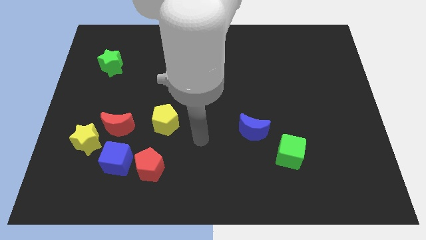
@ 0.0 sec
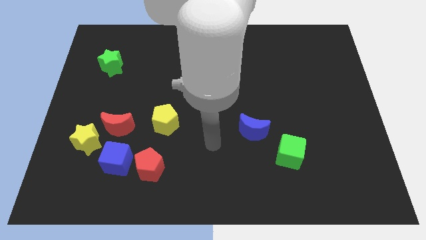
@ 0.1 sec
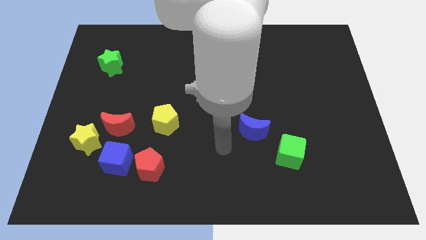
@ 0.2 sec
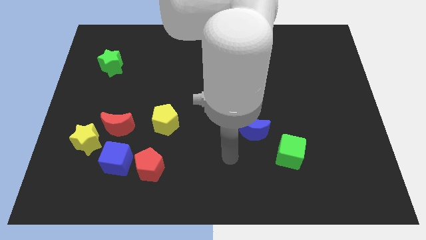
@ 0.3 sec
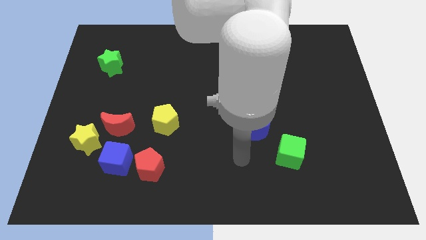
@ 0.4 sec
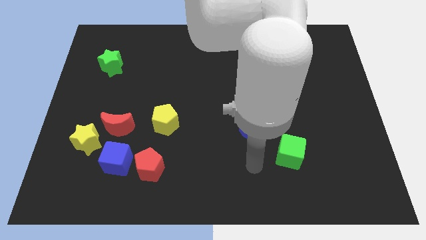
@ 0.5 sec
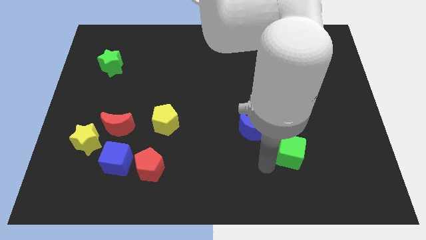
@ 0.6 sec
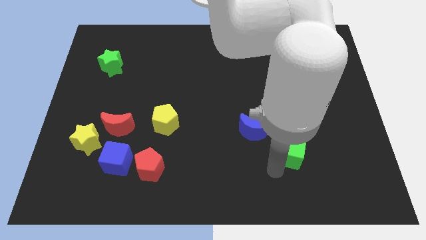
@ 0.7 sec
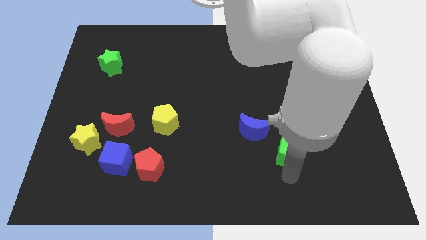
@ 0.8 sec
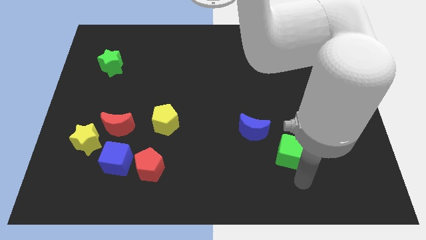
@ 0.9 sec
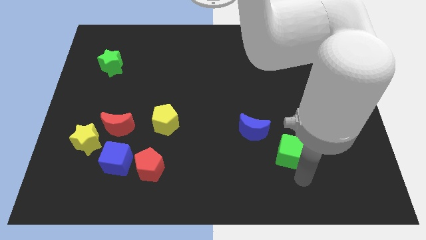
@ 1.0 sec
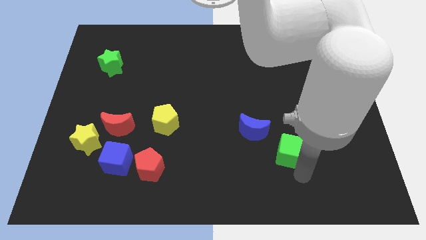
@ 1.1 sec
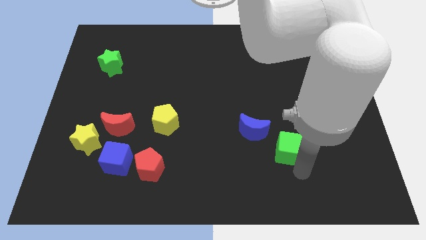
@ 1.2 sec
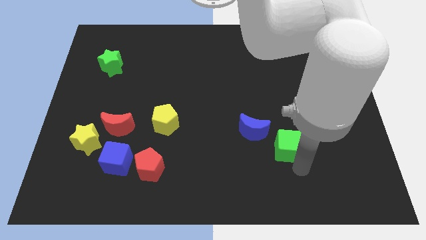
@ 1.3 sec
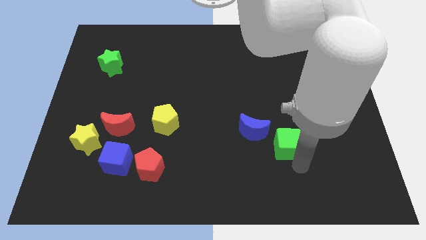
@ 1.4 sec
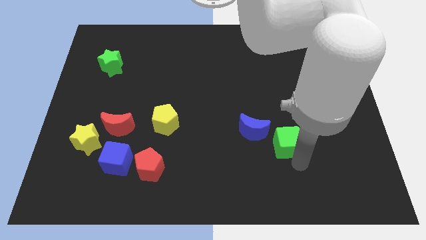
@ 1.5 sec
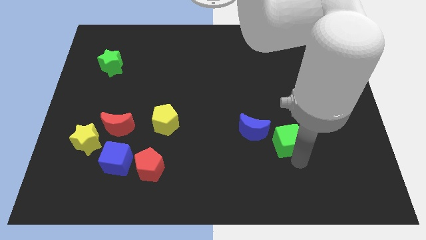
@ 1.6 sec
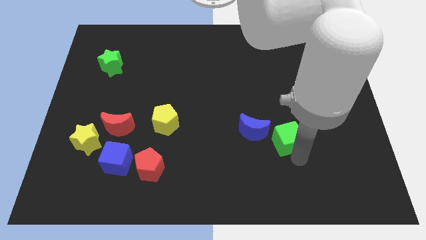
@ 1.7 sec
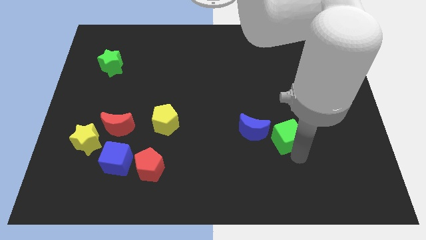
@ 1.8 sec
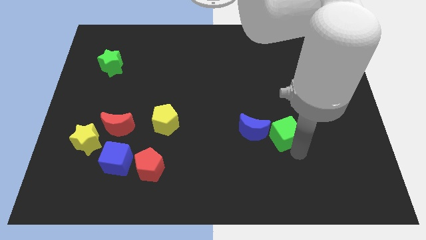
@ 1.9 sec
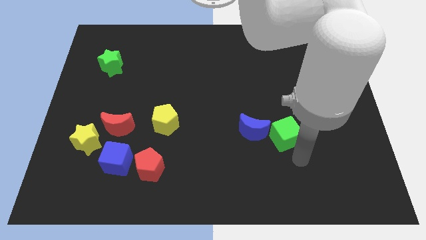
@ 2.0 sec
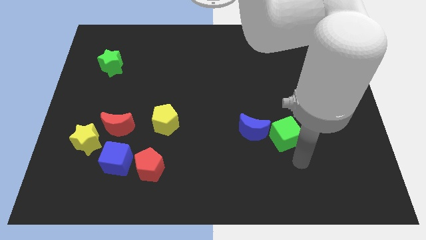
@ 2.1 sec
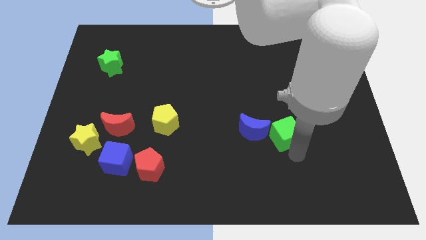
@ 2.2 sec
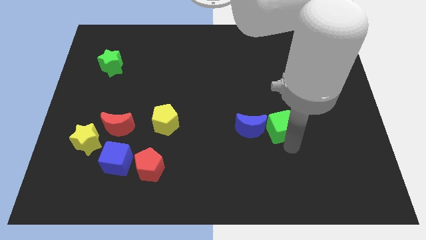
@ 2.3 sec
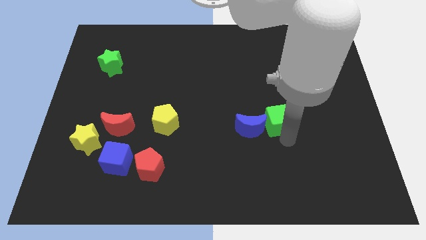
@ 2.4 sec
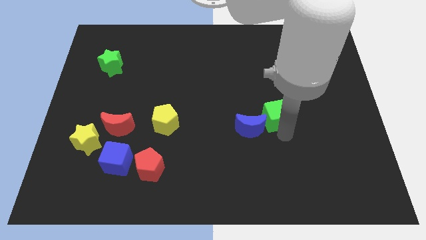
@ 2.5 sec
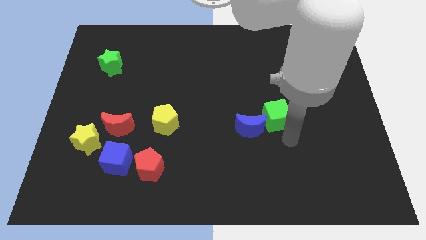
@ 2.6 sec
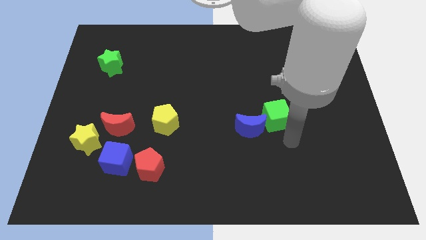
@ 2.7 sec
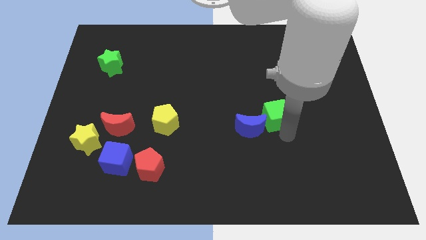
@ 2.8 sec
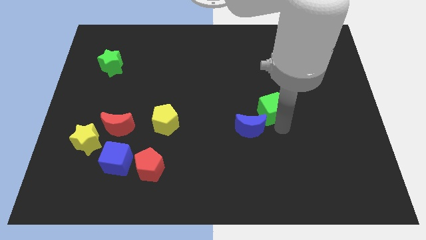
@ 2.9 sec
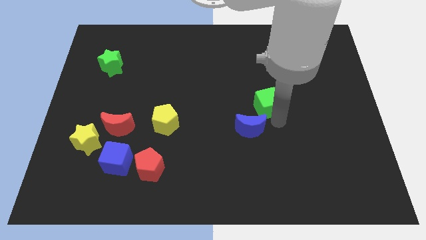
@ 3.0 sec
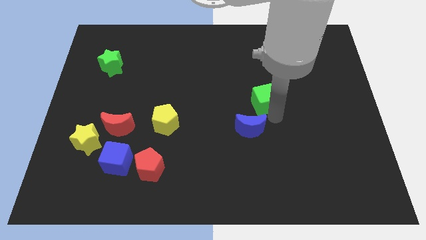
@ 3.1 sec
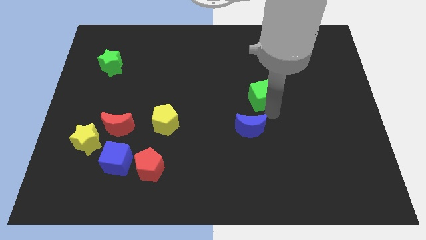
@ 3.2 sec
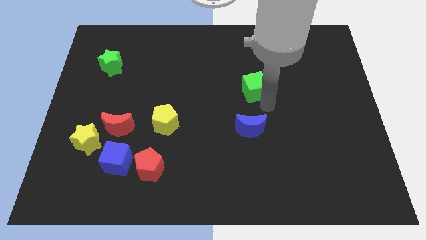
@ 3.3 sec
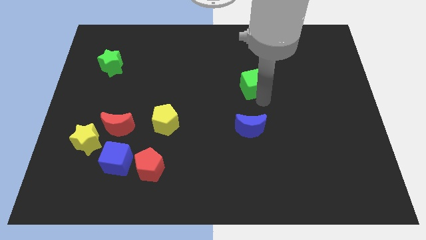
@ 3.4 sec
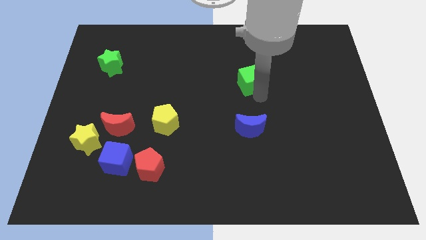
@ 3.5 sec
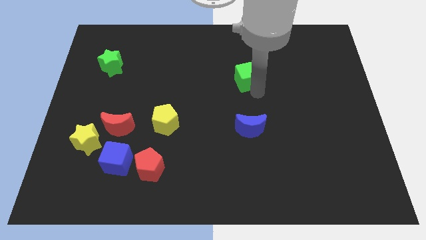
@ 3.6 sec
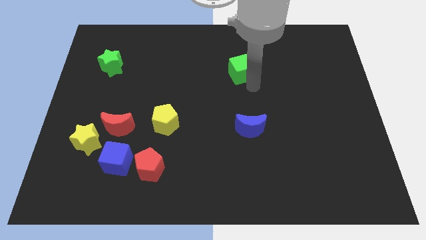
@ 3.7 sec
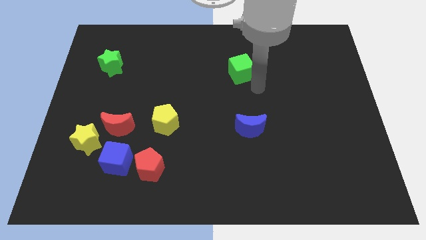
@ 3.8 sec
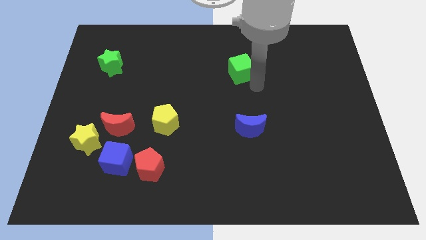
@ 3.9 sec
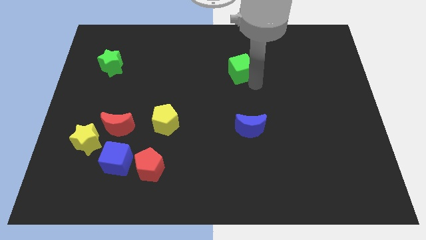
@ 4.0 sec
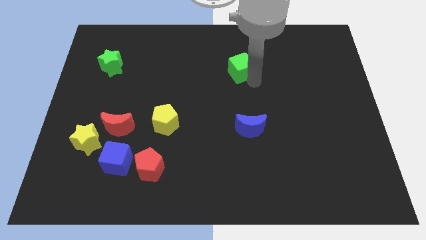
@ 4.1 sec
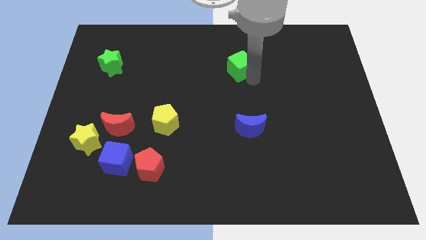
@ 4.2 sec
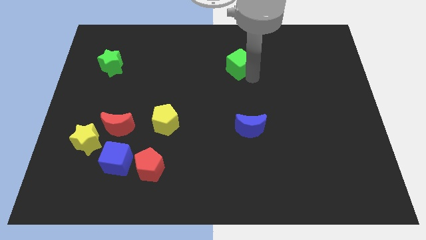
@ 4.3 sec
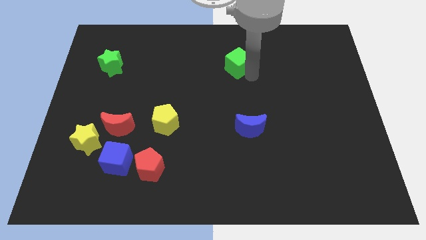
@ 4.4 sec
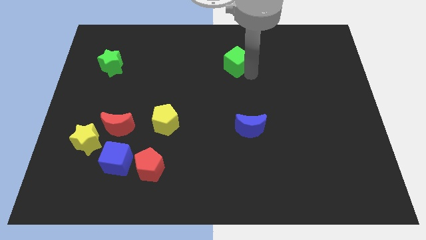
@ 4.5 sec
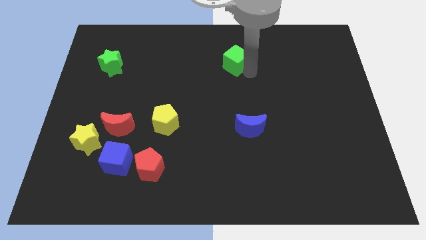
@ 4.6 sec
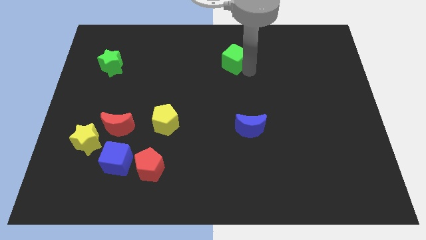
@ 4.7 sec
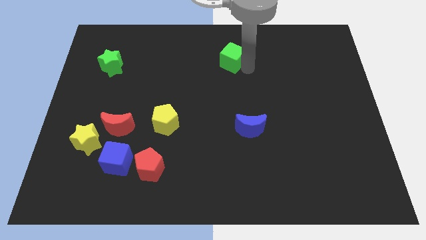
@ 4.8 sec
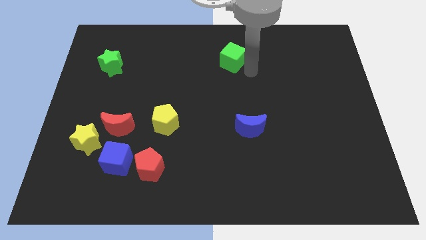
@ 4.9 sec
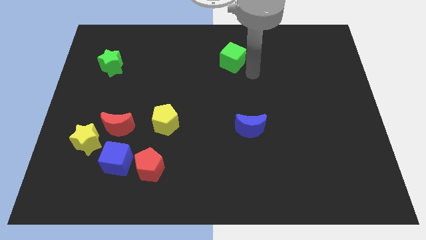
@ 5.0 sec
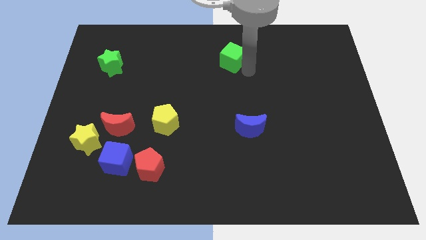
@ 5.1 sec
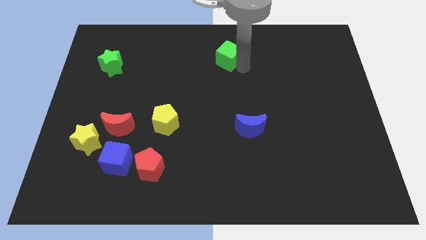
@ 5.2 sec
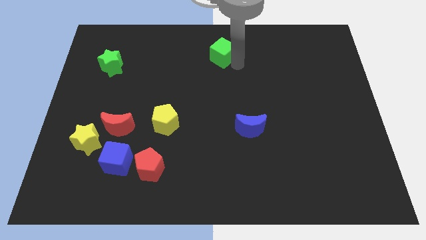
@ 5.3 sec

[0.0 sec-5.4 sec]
slide the green cube to the top side

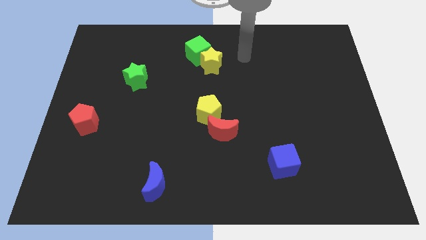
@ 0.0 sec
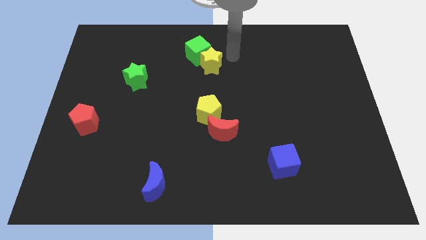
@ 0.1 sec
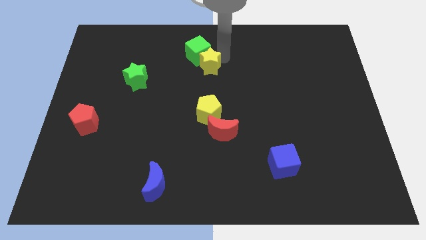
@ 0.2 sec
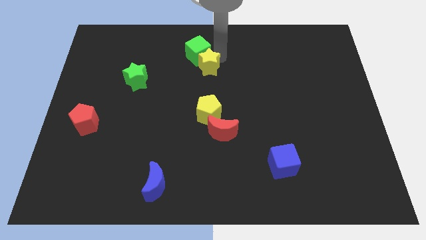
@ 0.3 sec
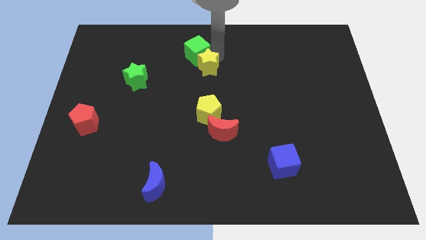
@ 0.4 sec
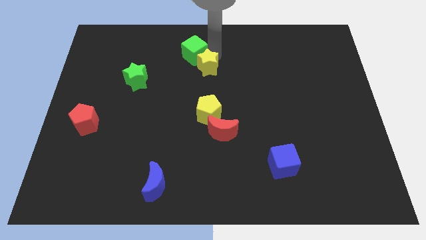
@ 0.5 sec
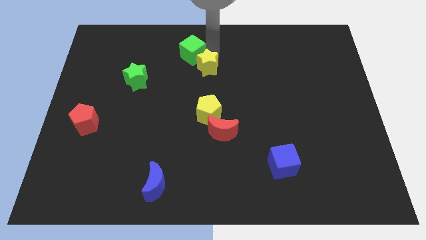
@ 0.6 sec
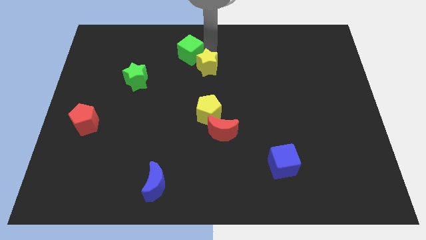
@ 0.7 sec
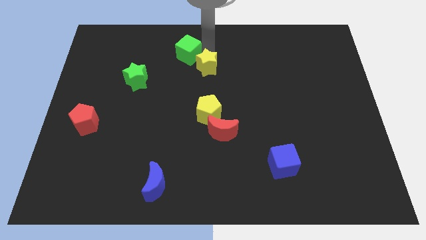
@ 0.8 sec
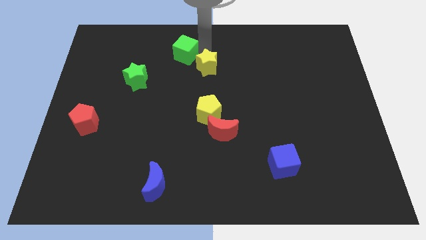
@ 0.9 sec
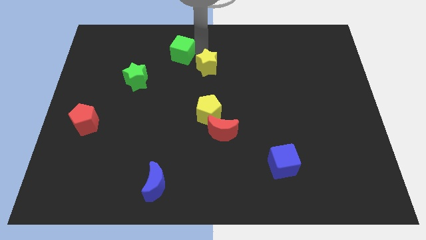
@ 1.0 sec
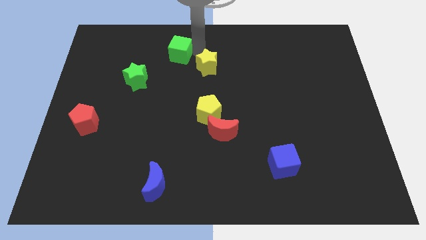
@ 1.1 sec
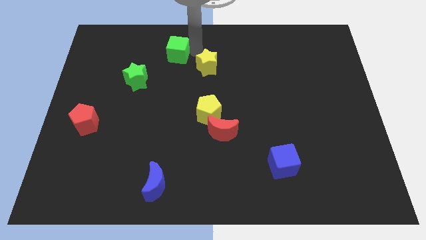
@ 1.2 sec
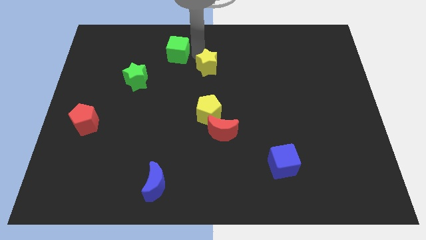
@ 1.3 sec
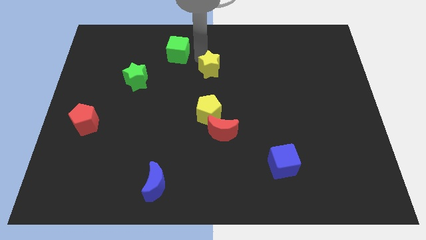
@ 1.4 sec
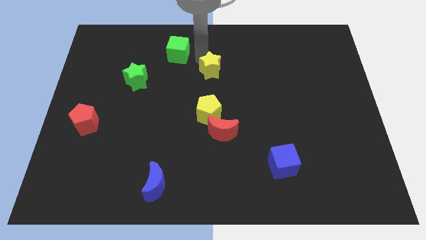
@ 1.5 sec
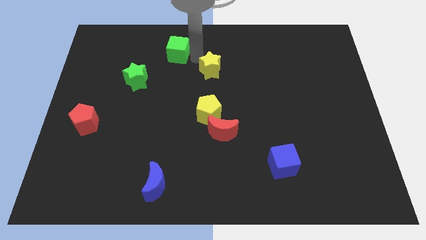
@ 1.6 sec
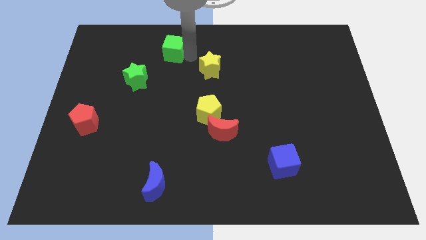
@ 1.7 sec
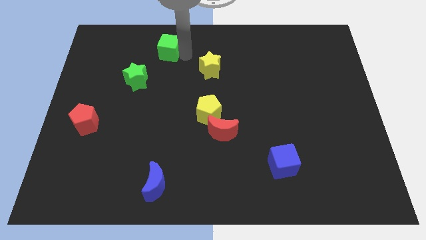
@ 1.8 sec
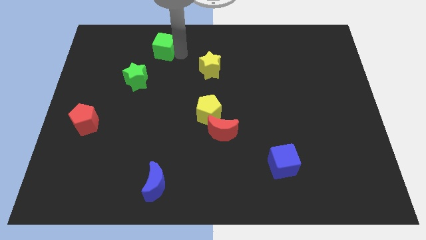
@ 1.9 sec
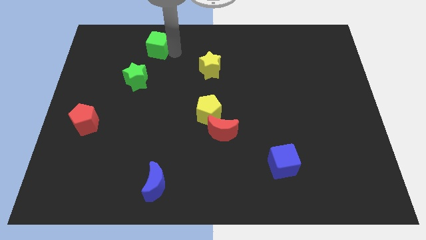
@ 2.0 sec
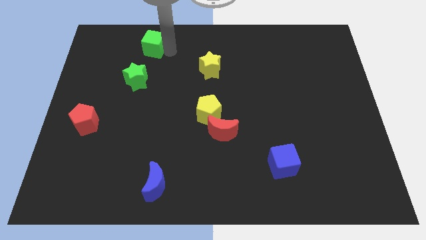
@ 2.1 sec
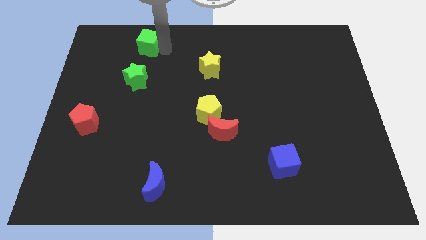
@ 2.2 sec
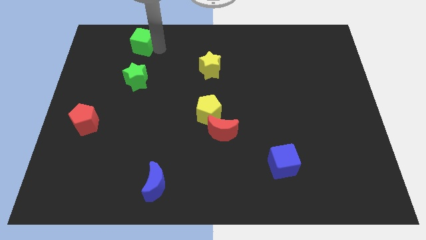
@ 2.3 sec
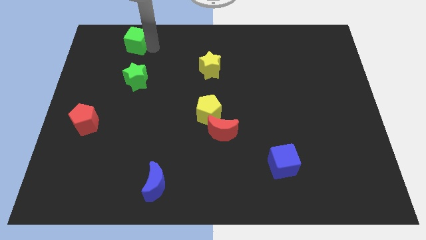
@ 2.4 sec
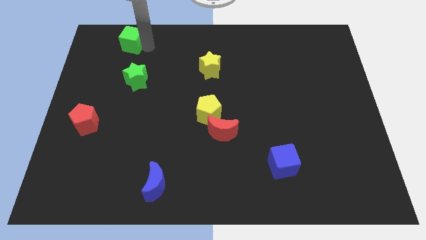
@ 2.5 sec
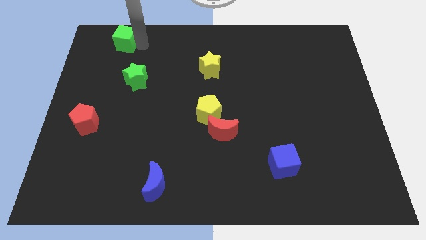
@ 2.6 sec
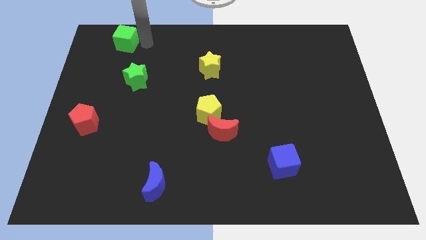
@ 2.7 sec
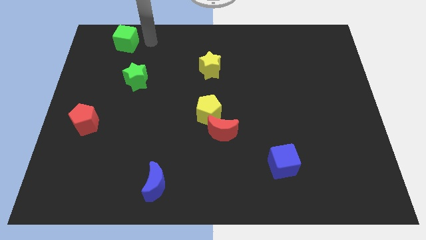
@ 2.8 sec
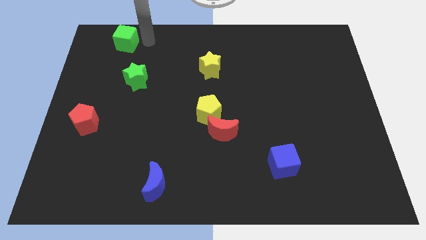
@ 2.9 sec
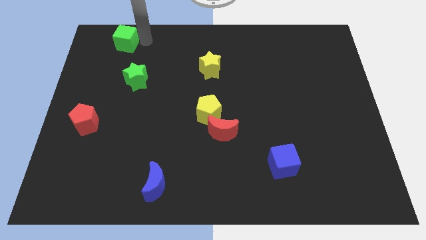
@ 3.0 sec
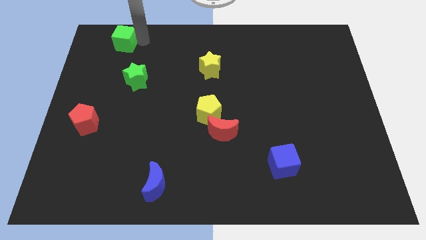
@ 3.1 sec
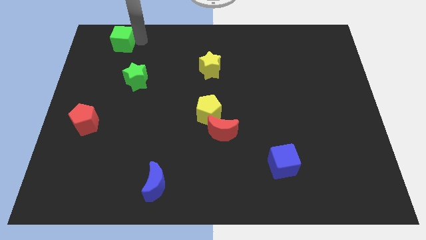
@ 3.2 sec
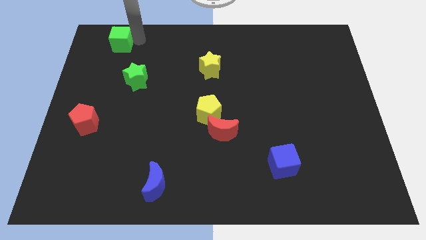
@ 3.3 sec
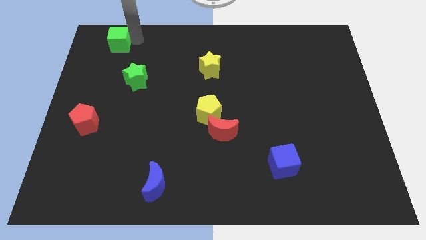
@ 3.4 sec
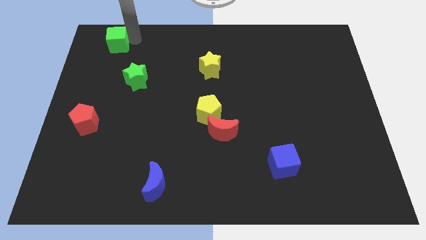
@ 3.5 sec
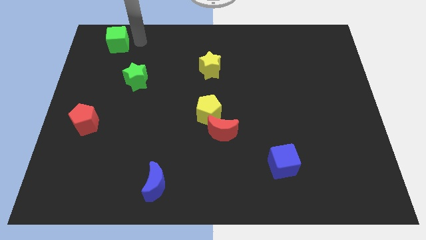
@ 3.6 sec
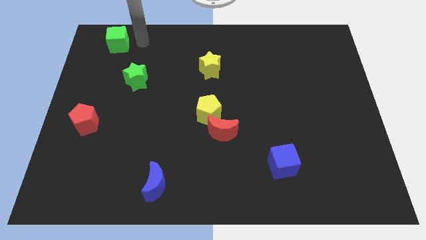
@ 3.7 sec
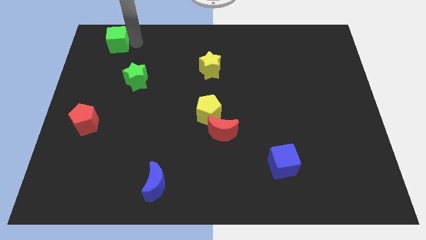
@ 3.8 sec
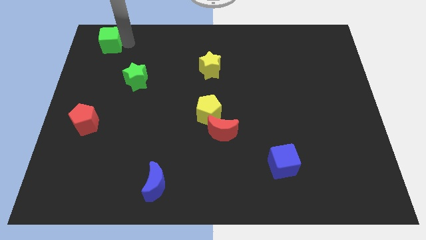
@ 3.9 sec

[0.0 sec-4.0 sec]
move the green cube to the top left corner
